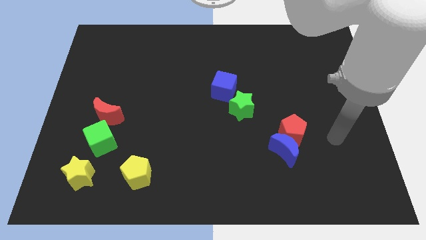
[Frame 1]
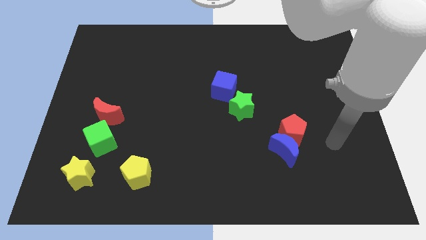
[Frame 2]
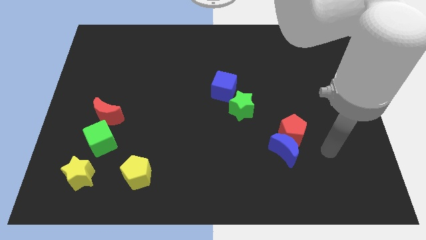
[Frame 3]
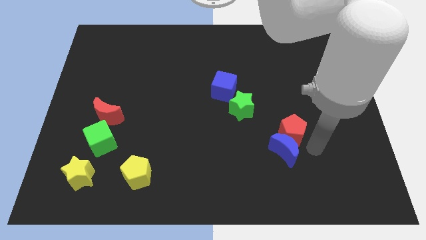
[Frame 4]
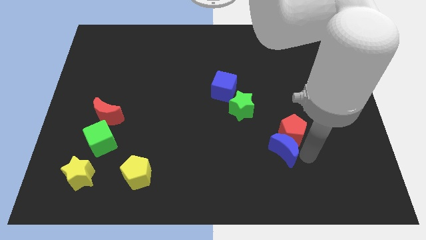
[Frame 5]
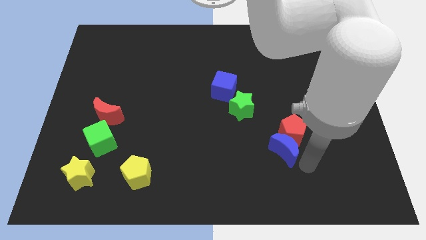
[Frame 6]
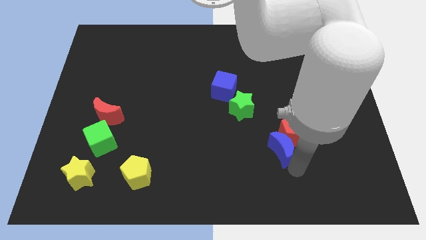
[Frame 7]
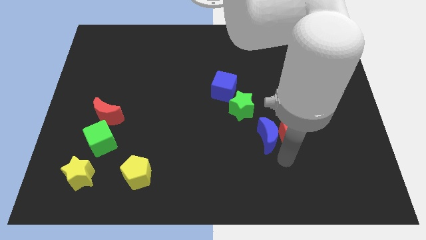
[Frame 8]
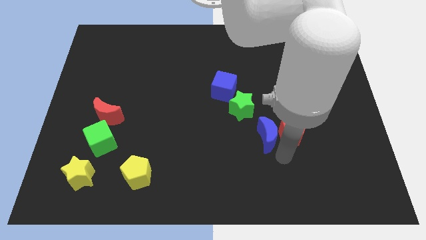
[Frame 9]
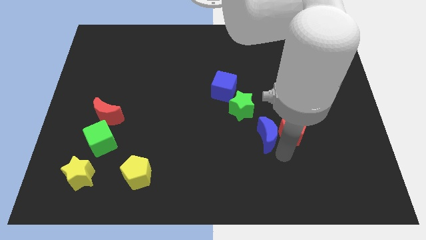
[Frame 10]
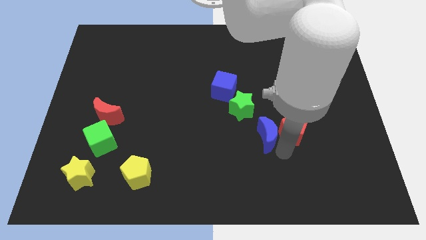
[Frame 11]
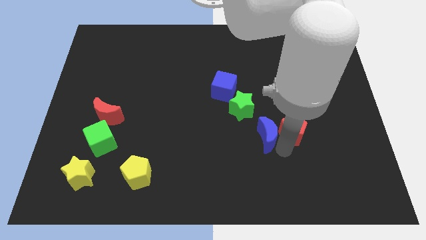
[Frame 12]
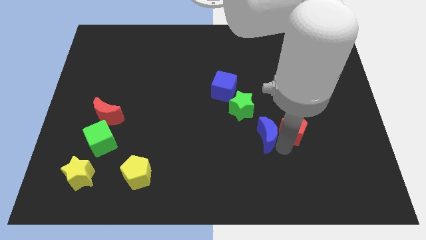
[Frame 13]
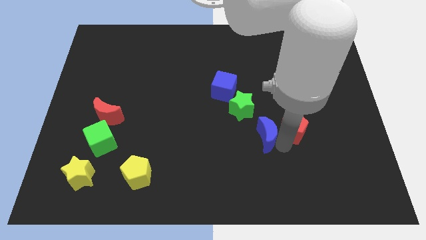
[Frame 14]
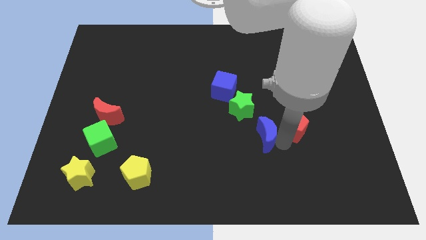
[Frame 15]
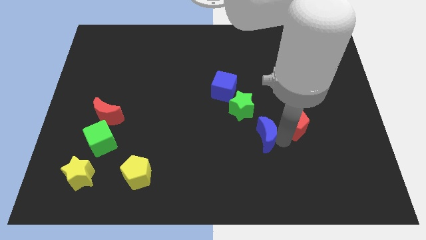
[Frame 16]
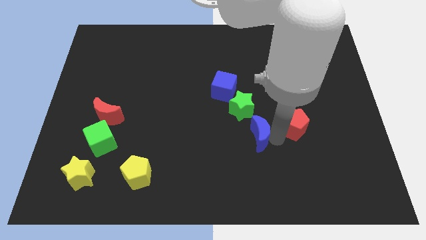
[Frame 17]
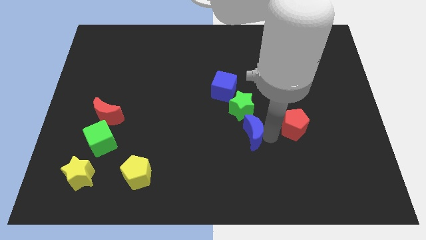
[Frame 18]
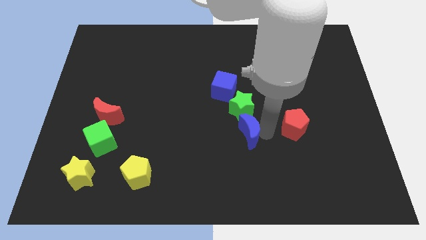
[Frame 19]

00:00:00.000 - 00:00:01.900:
separate the red pentagon from the blue moon

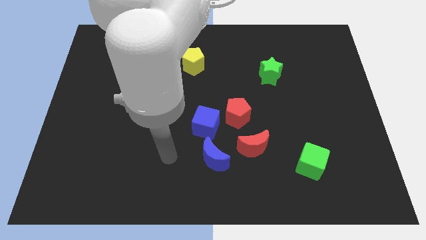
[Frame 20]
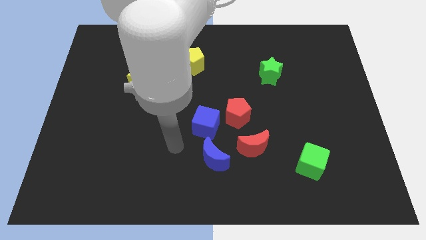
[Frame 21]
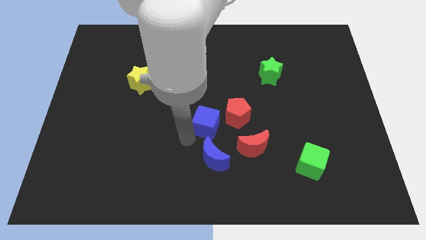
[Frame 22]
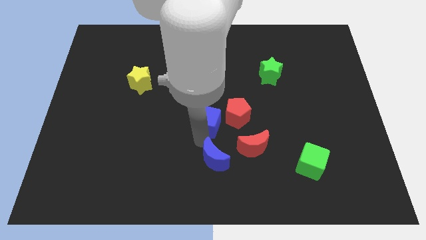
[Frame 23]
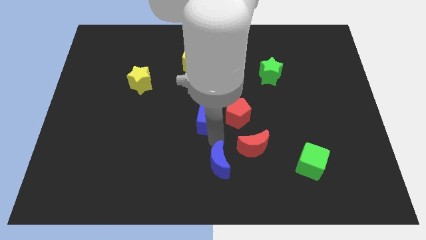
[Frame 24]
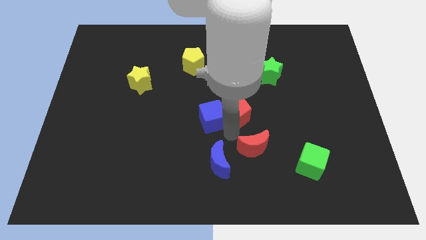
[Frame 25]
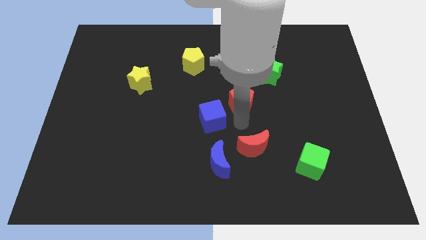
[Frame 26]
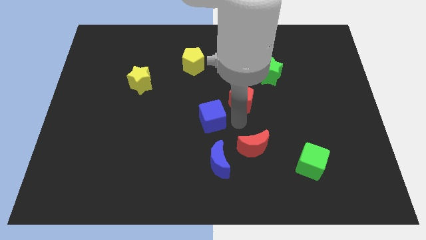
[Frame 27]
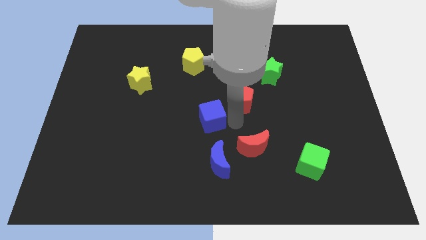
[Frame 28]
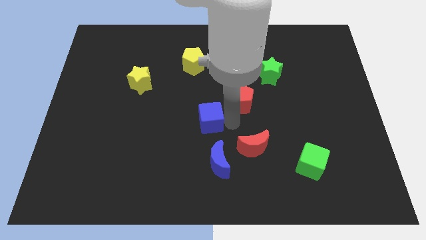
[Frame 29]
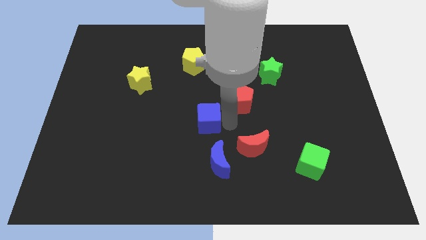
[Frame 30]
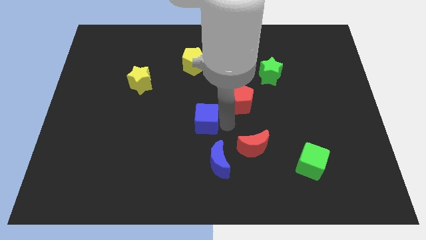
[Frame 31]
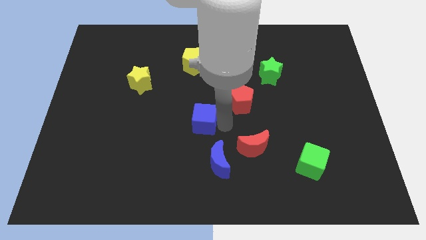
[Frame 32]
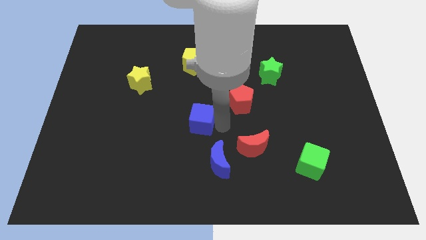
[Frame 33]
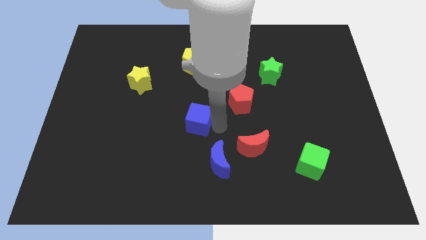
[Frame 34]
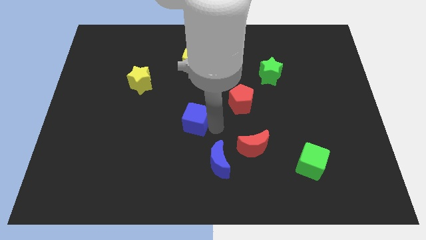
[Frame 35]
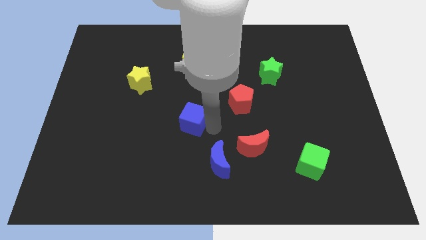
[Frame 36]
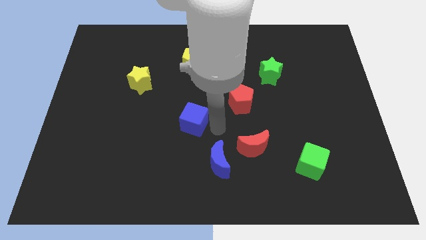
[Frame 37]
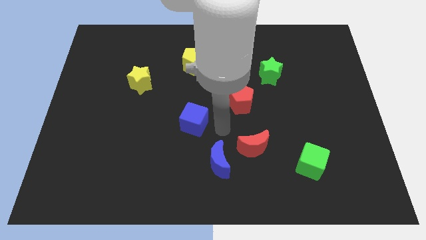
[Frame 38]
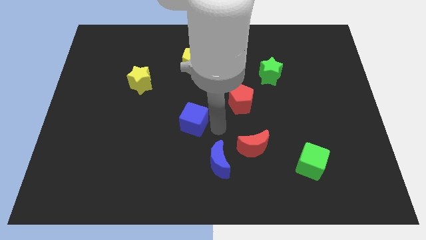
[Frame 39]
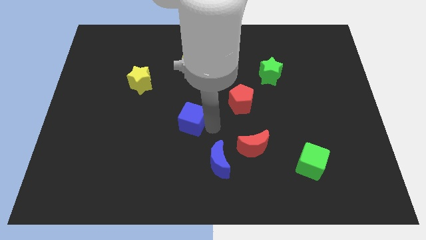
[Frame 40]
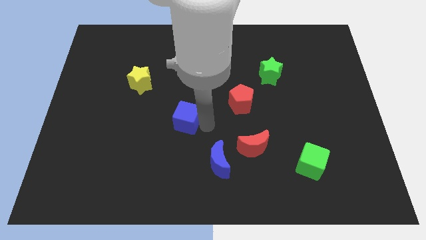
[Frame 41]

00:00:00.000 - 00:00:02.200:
pull the blue cube apart from the red pentagon and blue moon

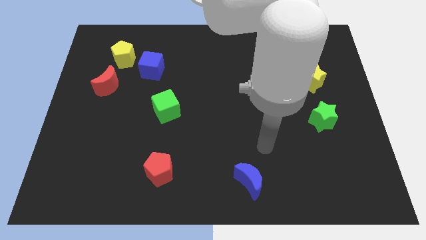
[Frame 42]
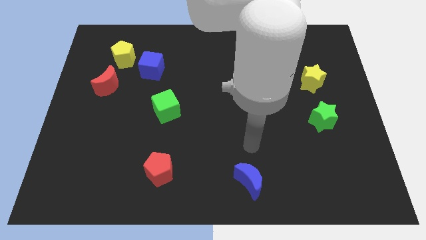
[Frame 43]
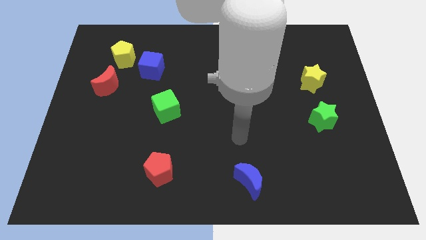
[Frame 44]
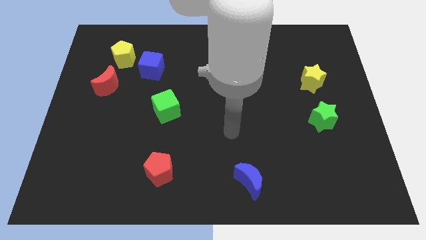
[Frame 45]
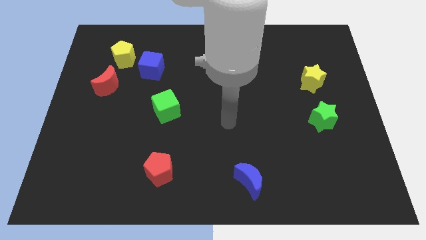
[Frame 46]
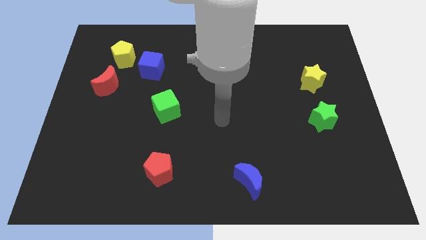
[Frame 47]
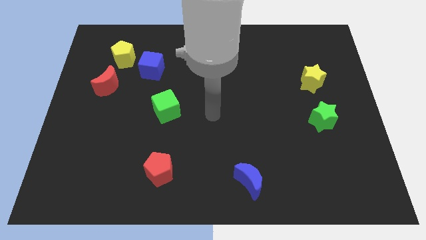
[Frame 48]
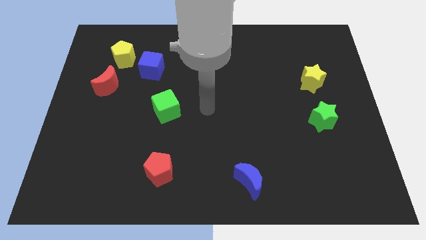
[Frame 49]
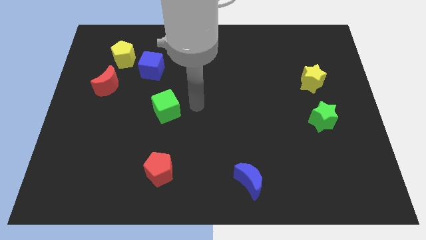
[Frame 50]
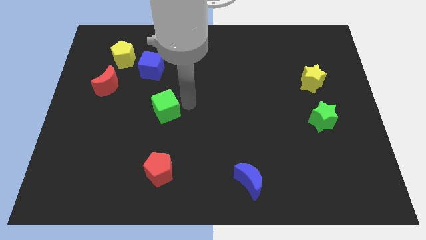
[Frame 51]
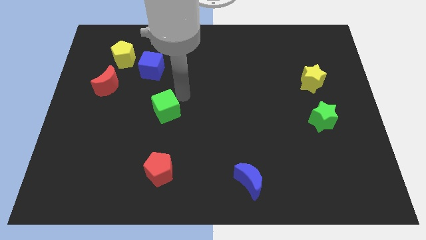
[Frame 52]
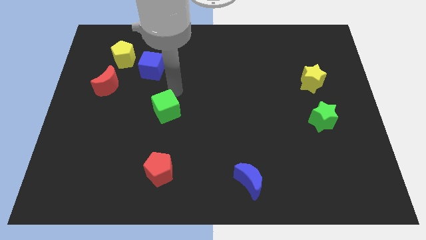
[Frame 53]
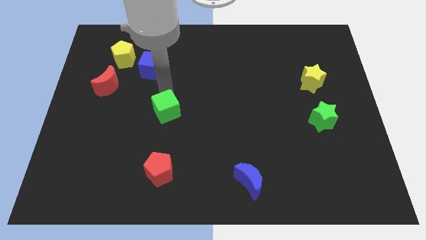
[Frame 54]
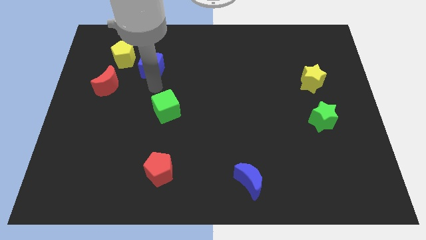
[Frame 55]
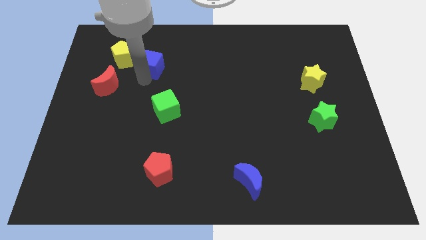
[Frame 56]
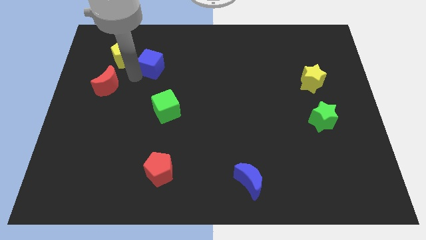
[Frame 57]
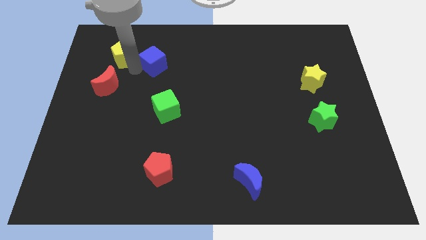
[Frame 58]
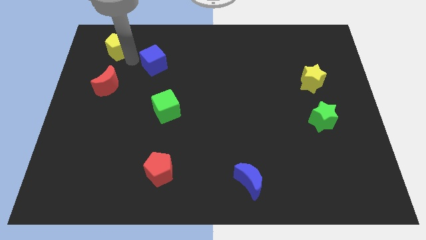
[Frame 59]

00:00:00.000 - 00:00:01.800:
separate the blue cube from the yellow pentagon

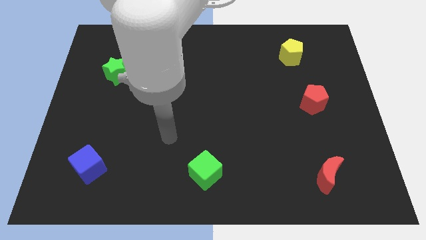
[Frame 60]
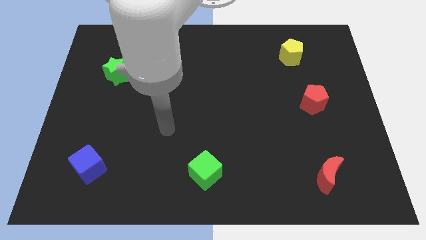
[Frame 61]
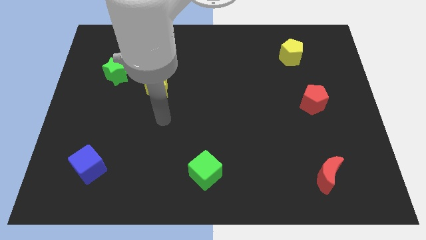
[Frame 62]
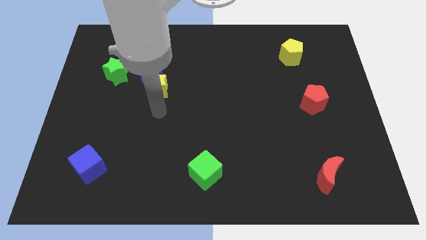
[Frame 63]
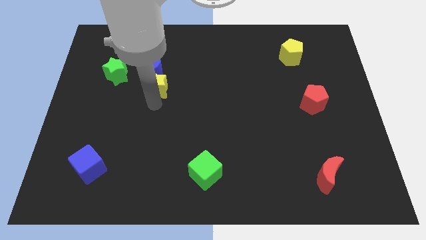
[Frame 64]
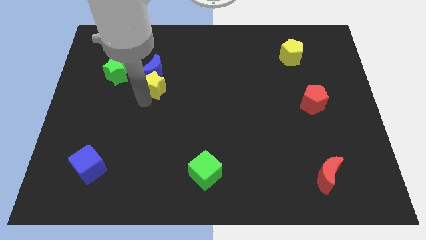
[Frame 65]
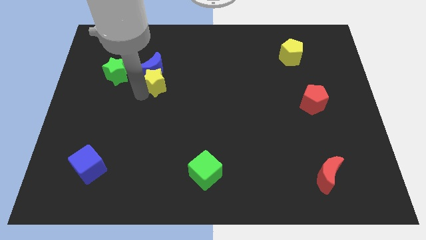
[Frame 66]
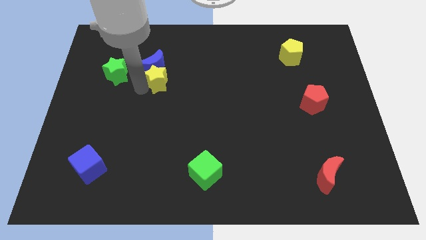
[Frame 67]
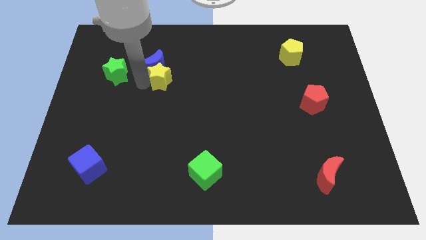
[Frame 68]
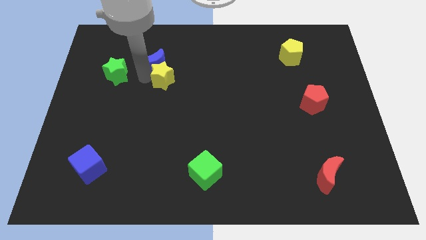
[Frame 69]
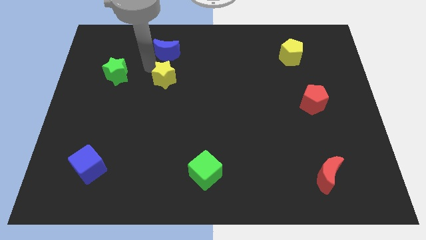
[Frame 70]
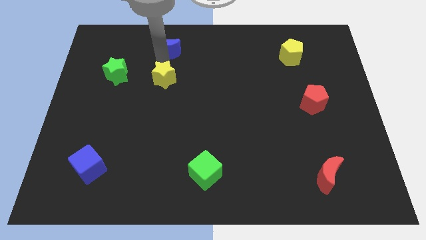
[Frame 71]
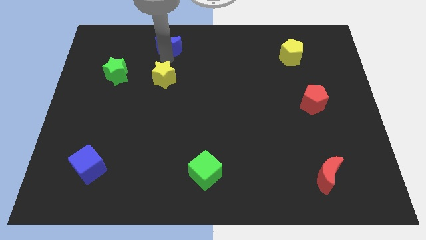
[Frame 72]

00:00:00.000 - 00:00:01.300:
pull the yellow star apart from the blue moon

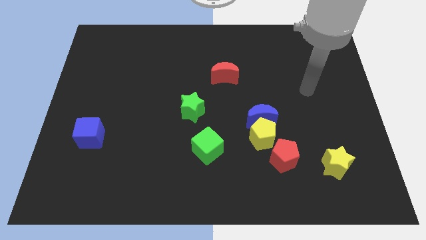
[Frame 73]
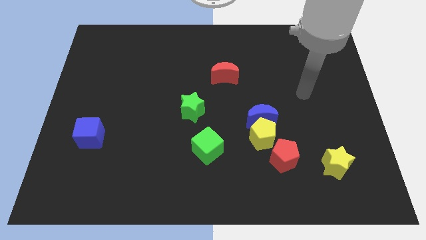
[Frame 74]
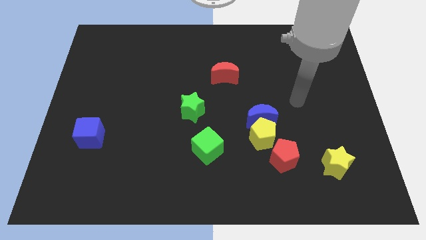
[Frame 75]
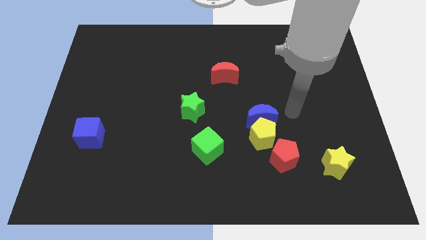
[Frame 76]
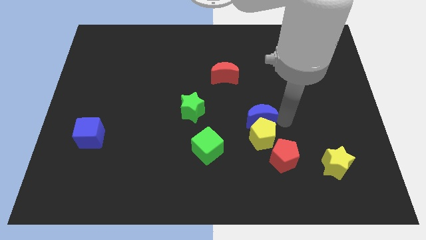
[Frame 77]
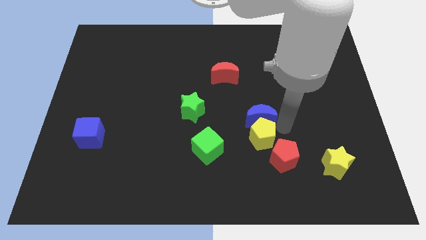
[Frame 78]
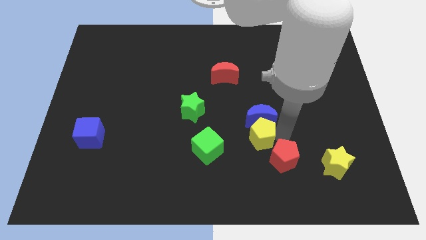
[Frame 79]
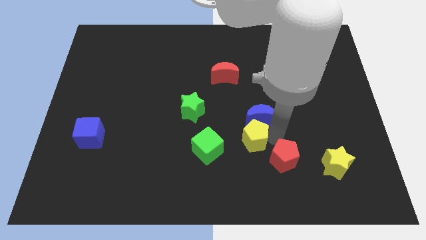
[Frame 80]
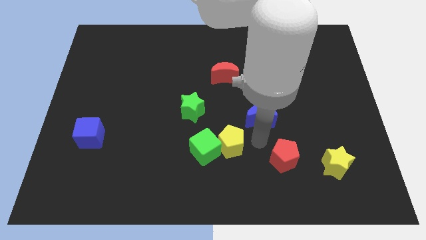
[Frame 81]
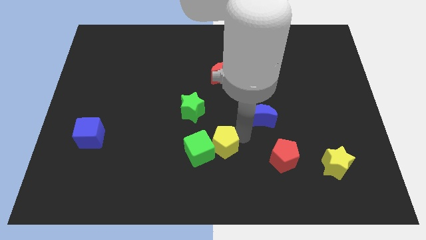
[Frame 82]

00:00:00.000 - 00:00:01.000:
pull the blue moon apart from the yellow pentagon

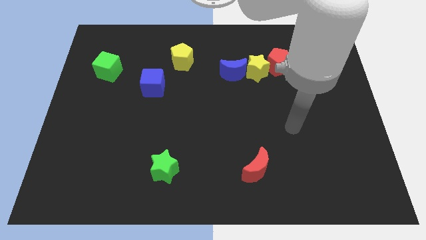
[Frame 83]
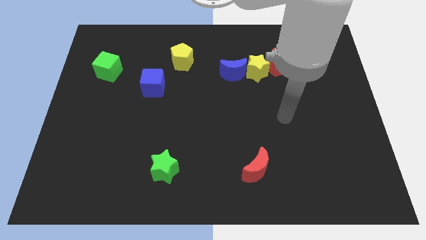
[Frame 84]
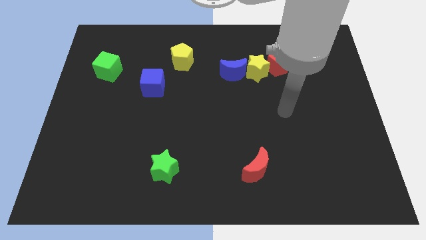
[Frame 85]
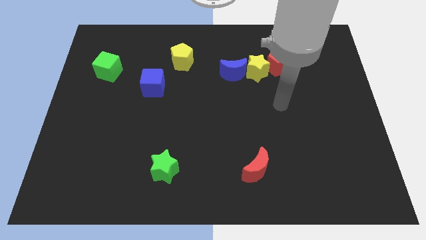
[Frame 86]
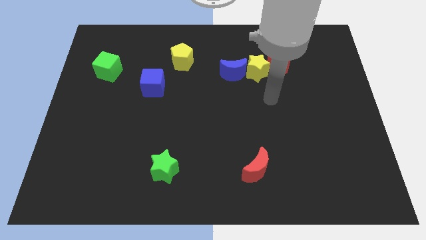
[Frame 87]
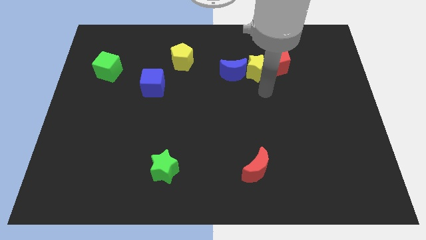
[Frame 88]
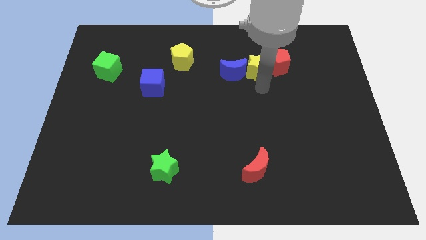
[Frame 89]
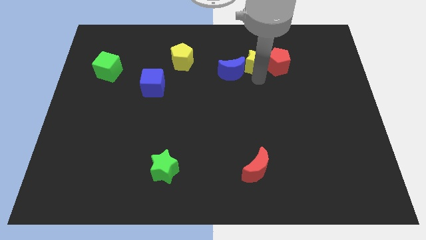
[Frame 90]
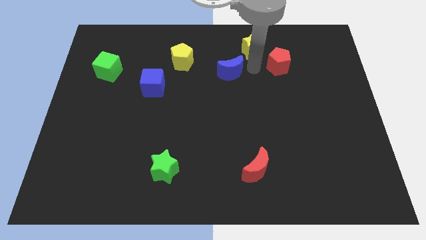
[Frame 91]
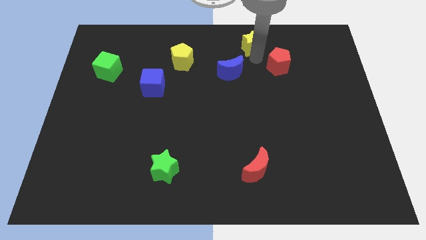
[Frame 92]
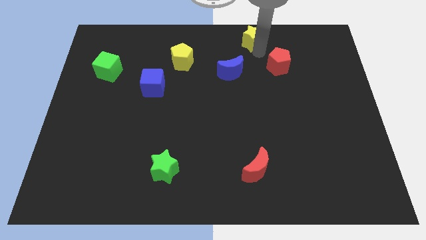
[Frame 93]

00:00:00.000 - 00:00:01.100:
move the red pentagon away from the yellow star
